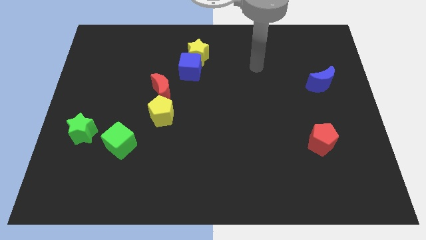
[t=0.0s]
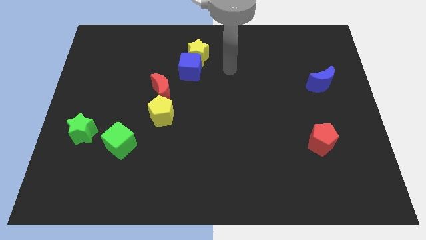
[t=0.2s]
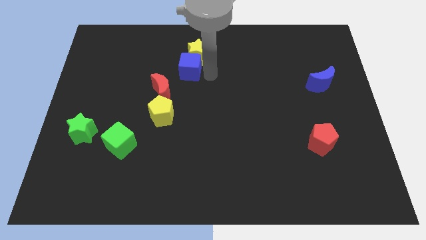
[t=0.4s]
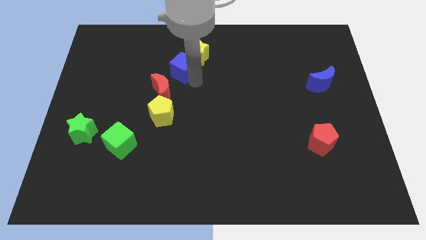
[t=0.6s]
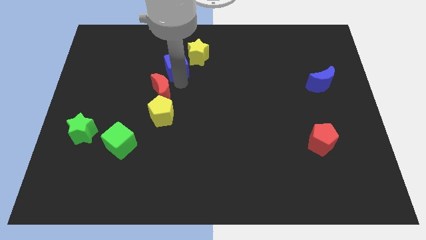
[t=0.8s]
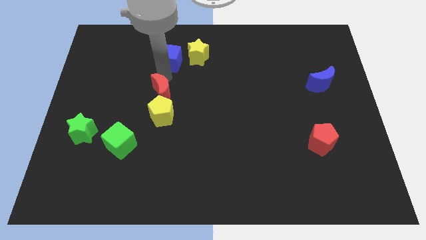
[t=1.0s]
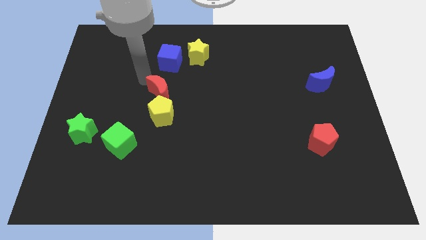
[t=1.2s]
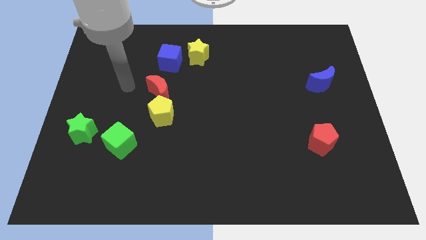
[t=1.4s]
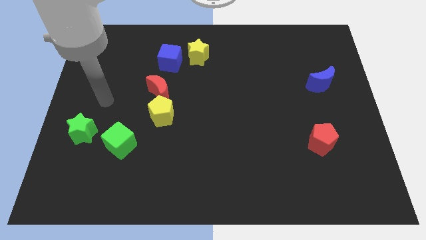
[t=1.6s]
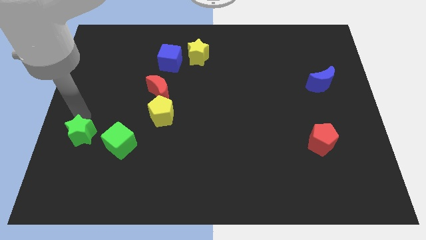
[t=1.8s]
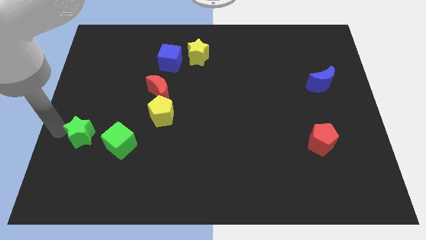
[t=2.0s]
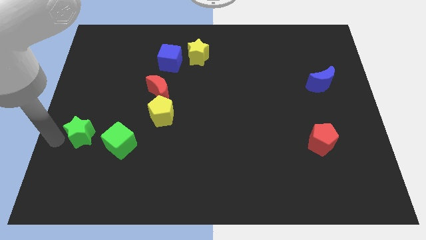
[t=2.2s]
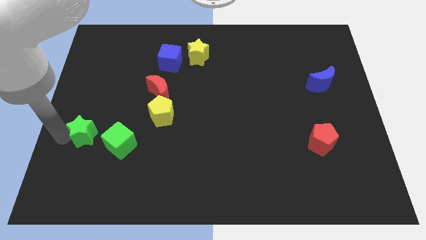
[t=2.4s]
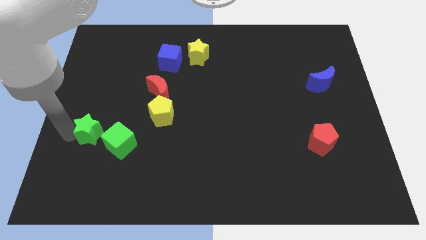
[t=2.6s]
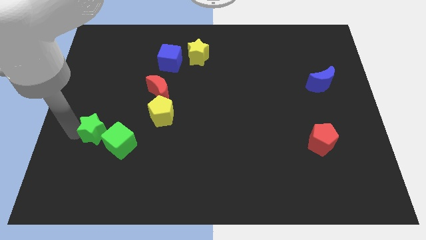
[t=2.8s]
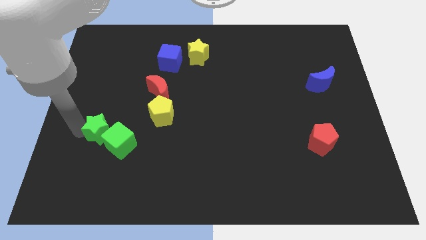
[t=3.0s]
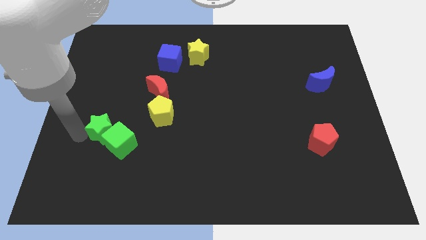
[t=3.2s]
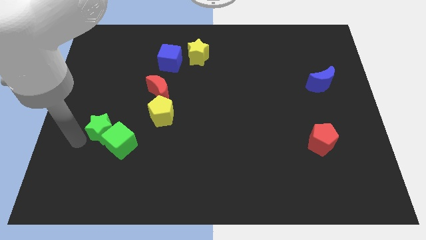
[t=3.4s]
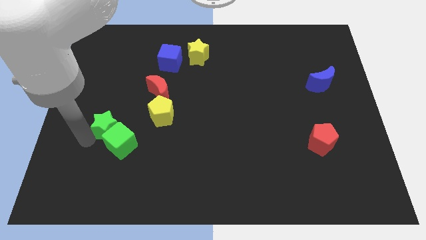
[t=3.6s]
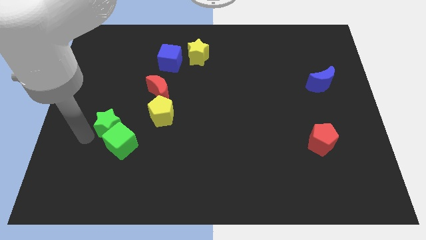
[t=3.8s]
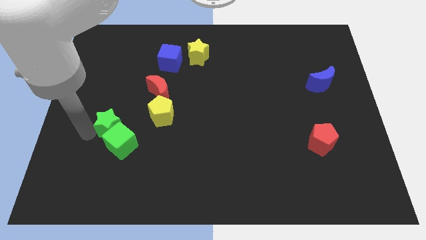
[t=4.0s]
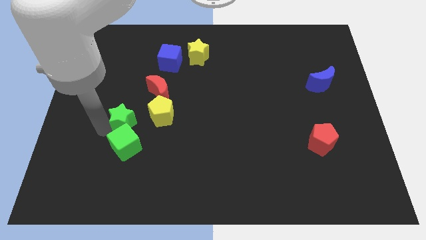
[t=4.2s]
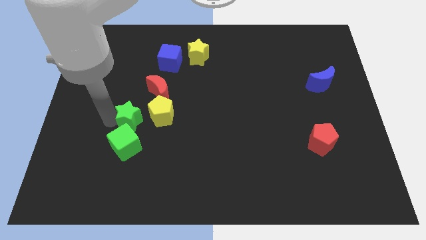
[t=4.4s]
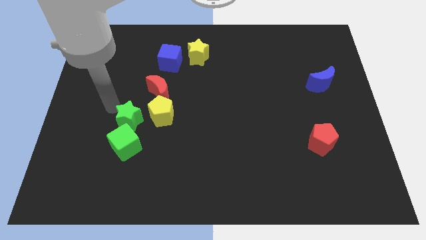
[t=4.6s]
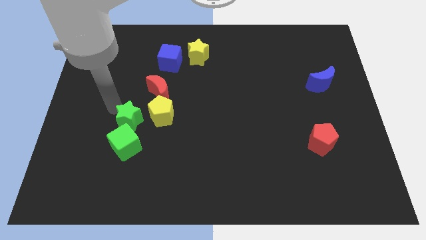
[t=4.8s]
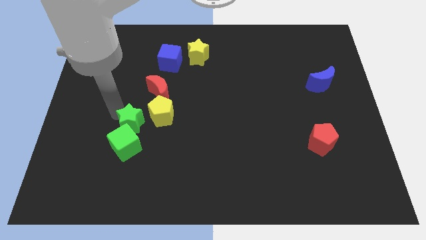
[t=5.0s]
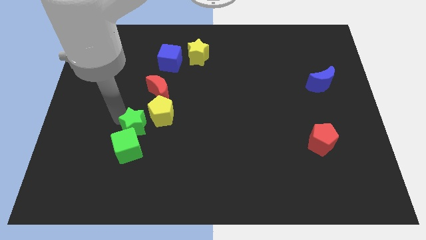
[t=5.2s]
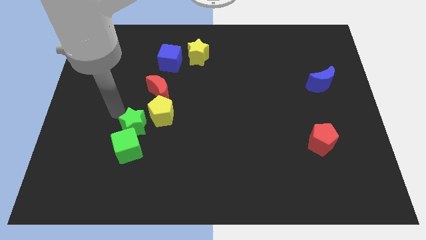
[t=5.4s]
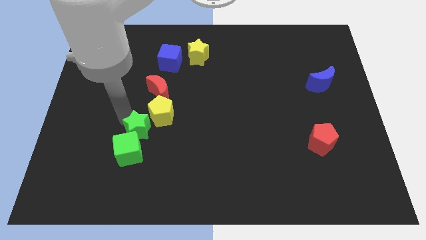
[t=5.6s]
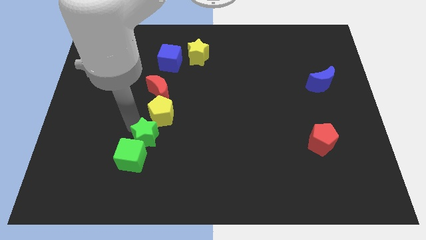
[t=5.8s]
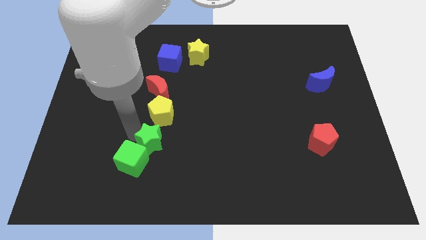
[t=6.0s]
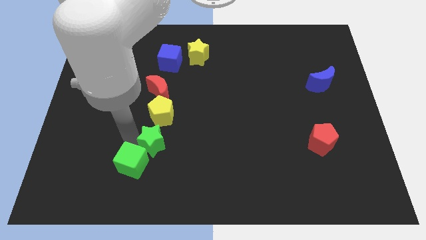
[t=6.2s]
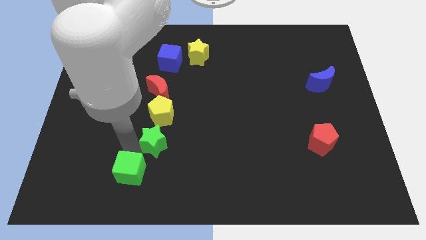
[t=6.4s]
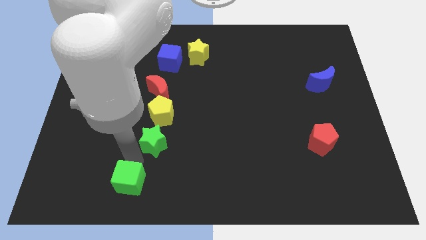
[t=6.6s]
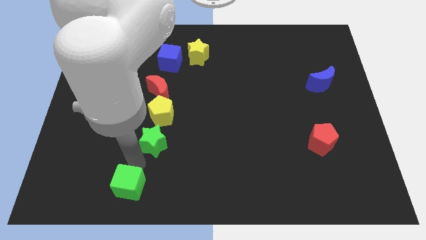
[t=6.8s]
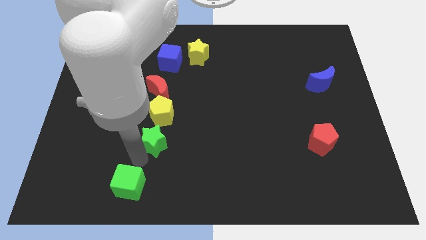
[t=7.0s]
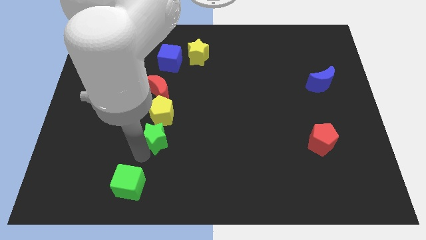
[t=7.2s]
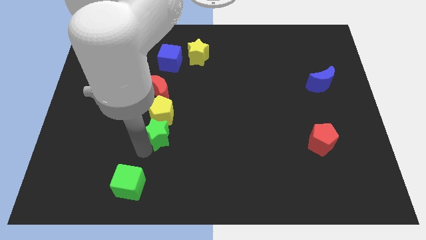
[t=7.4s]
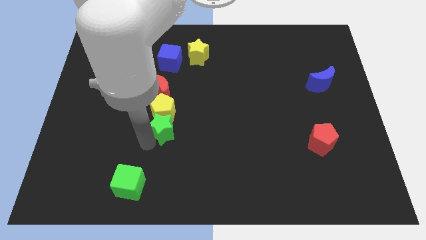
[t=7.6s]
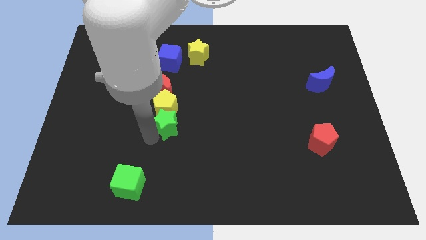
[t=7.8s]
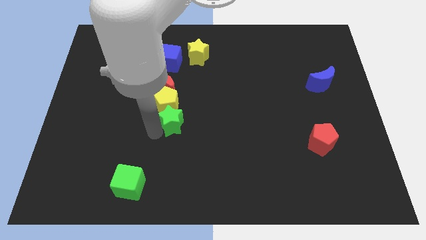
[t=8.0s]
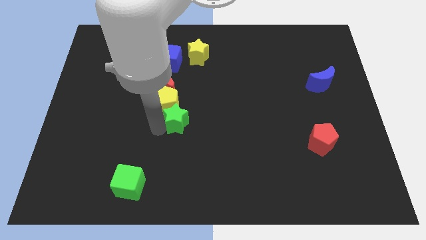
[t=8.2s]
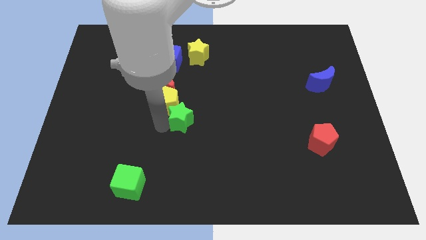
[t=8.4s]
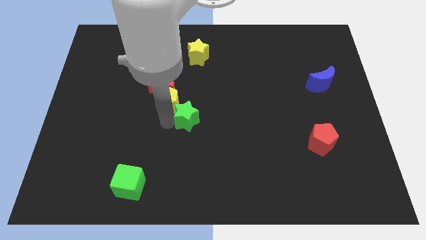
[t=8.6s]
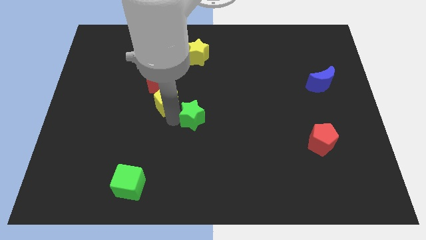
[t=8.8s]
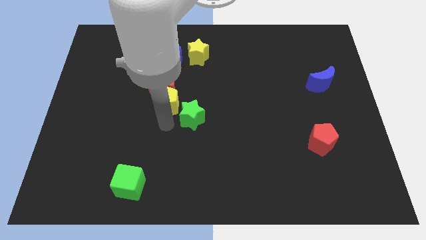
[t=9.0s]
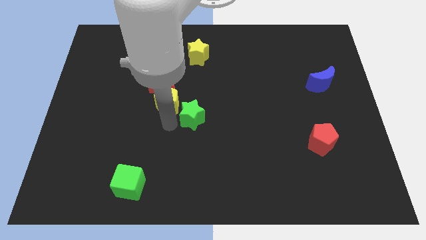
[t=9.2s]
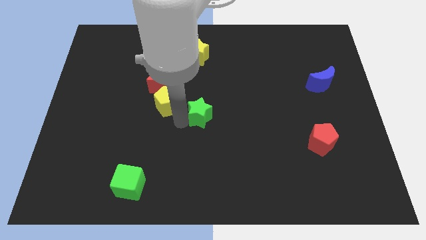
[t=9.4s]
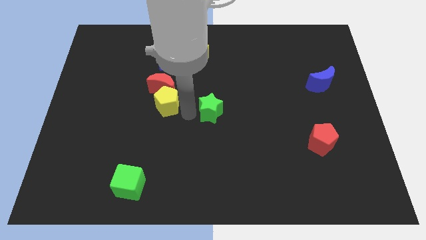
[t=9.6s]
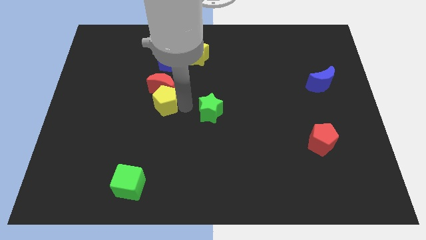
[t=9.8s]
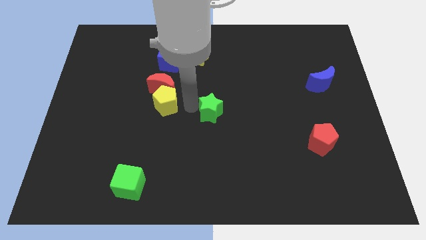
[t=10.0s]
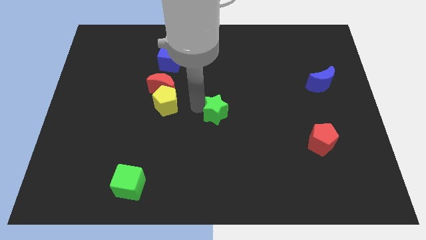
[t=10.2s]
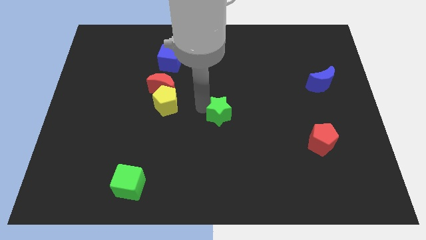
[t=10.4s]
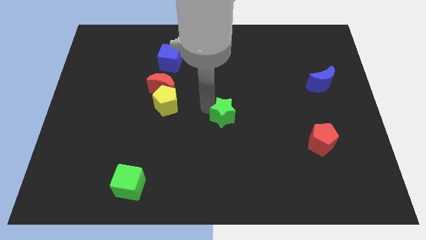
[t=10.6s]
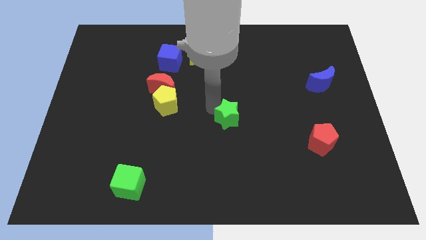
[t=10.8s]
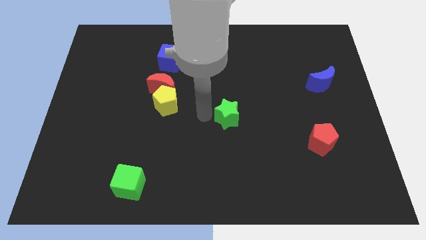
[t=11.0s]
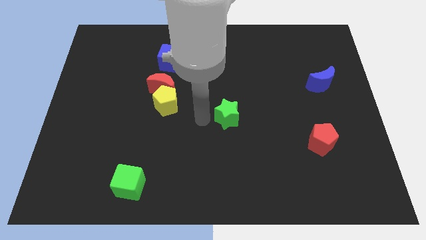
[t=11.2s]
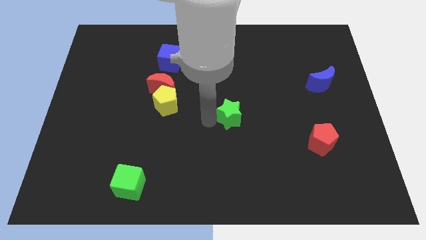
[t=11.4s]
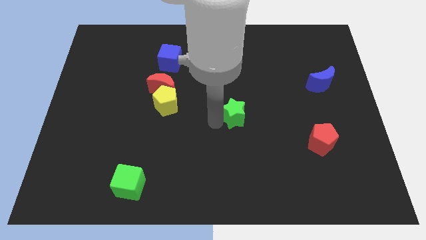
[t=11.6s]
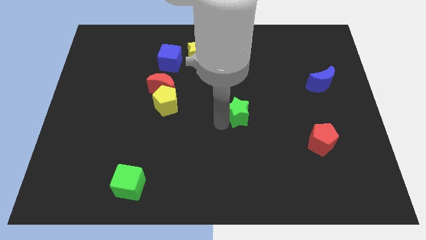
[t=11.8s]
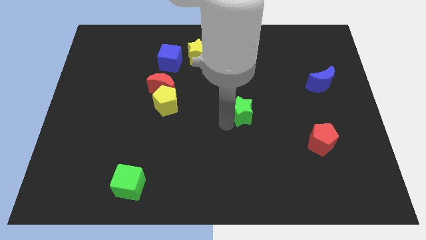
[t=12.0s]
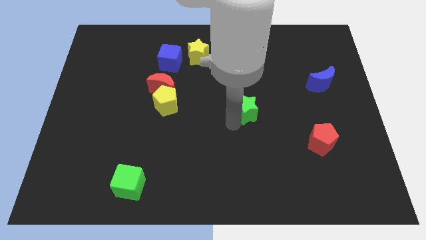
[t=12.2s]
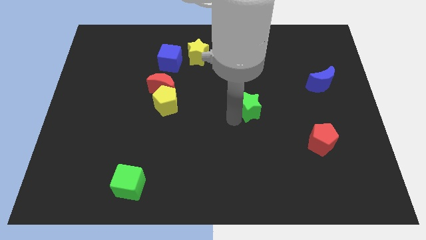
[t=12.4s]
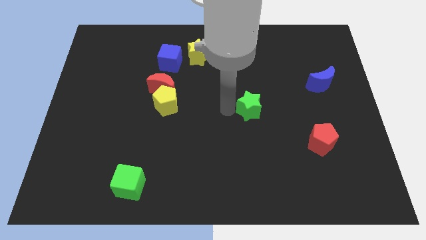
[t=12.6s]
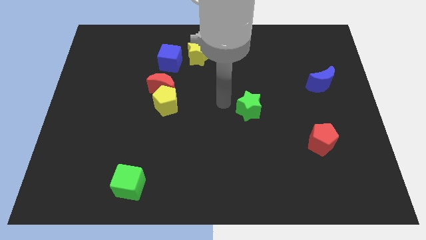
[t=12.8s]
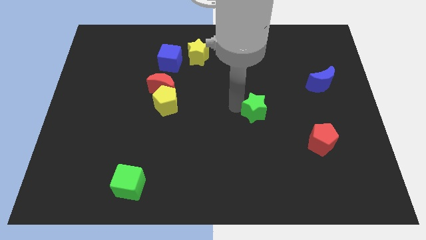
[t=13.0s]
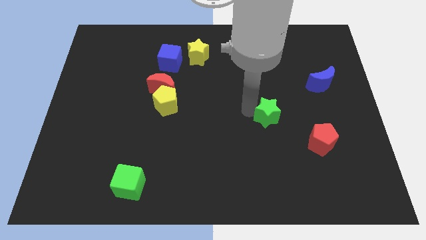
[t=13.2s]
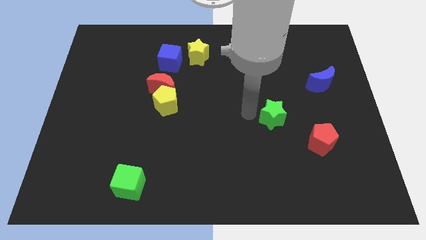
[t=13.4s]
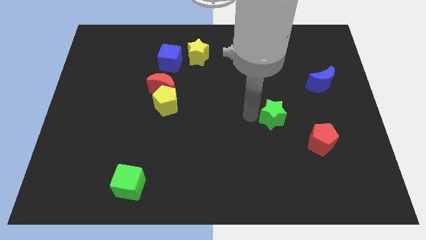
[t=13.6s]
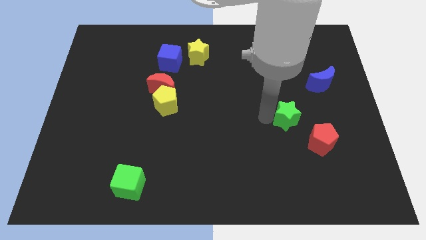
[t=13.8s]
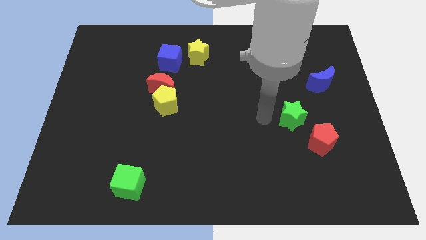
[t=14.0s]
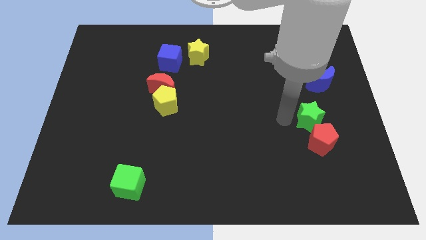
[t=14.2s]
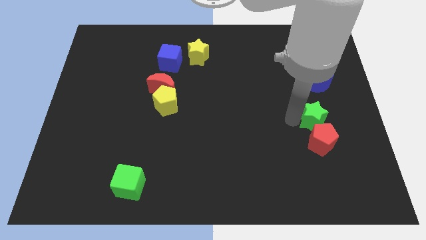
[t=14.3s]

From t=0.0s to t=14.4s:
move the green star diagonally up and to the right of the red pentagon

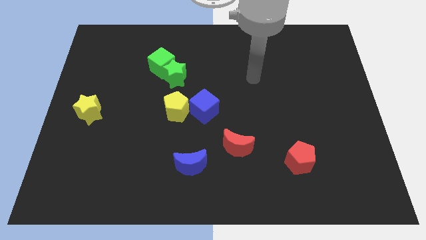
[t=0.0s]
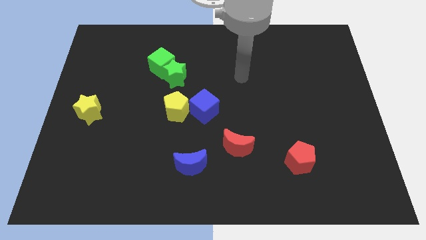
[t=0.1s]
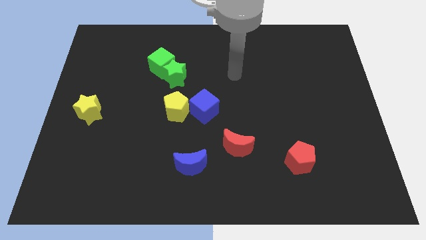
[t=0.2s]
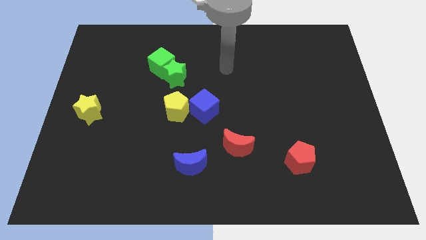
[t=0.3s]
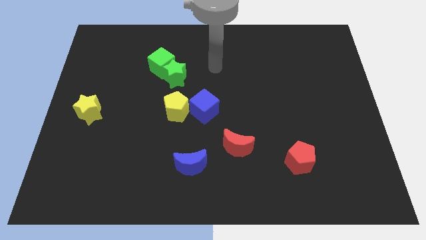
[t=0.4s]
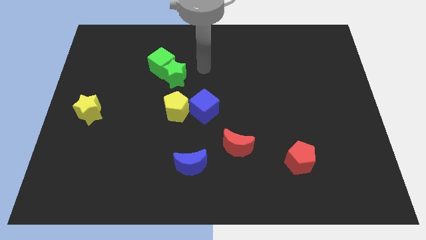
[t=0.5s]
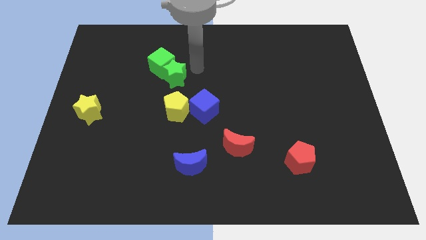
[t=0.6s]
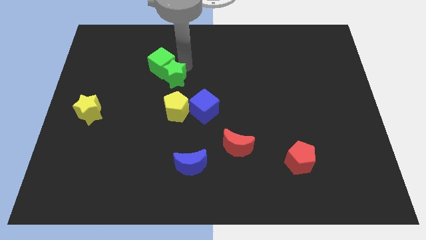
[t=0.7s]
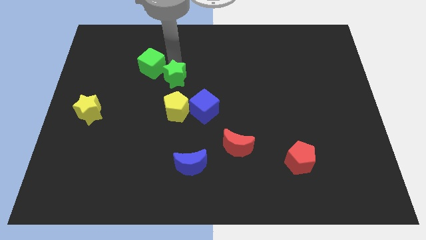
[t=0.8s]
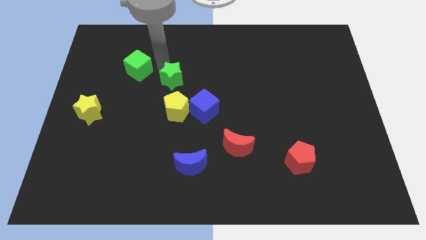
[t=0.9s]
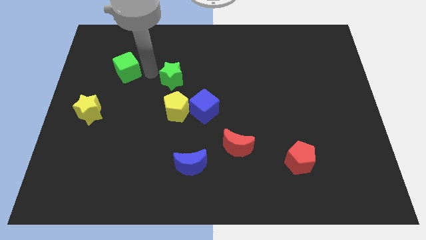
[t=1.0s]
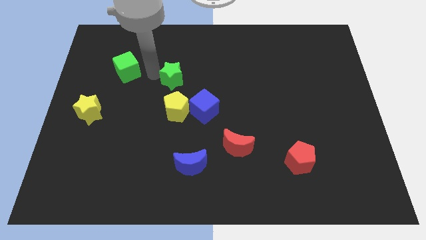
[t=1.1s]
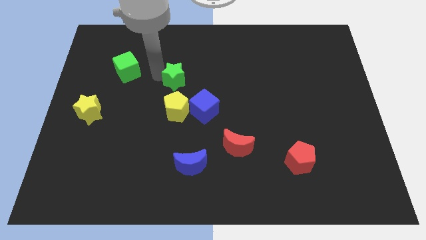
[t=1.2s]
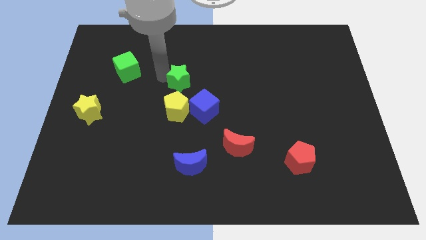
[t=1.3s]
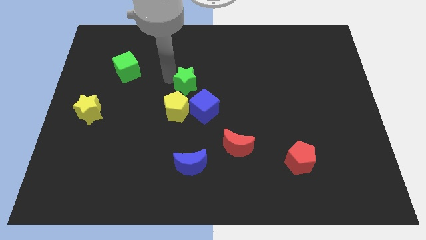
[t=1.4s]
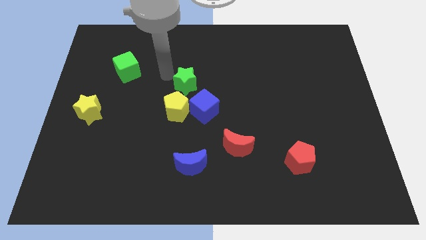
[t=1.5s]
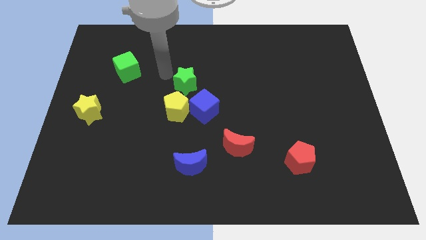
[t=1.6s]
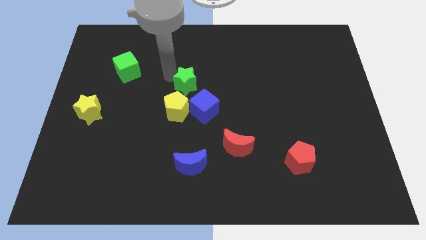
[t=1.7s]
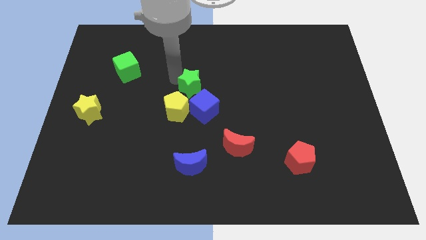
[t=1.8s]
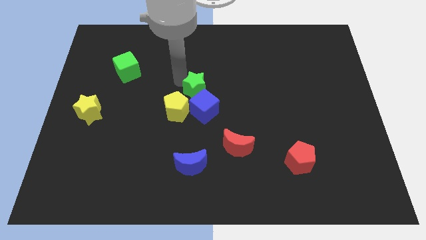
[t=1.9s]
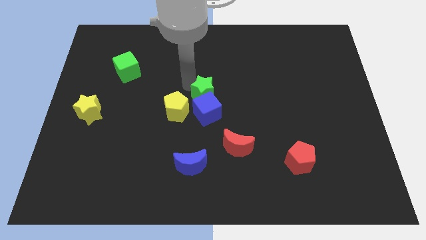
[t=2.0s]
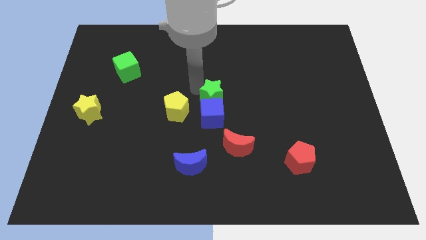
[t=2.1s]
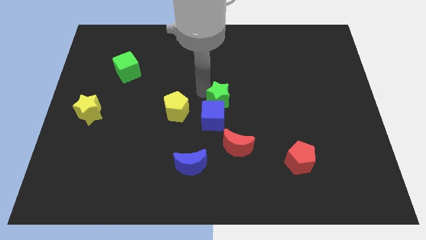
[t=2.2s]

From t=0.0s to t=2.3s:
move the green star to the top side of the red moon
